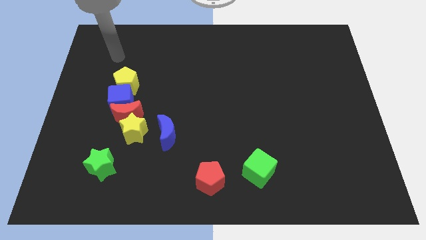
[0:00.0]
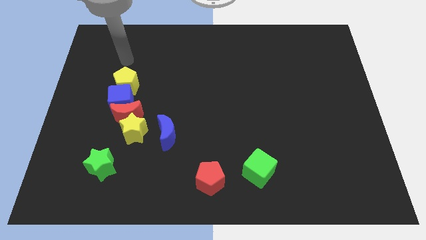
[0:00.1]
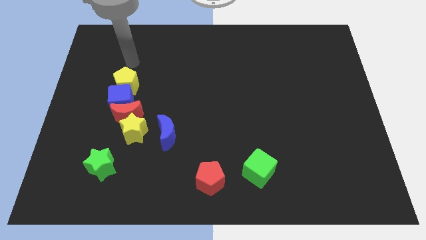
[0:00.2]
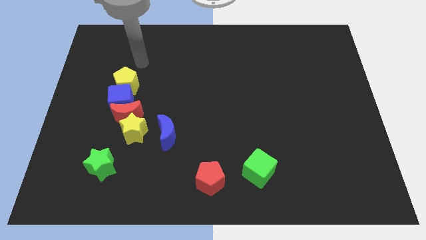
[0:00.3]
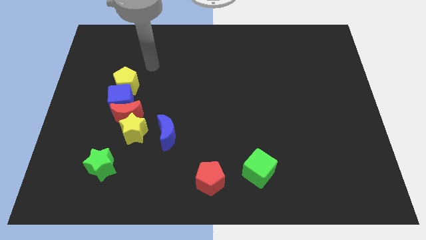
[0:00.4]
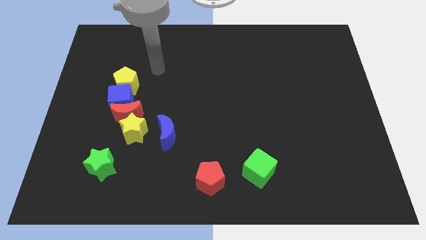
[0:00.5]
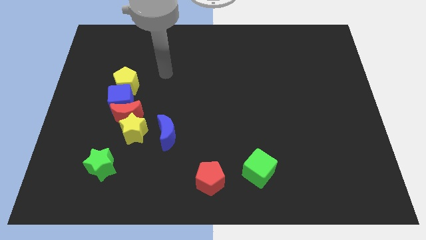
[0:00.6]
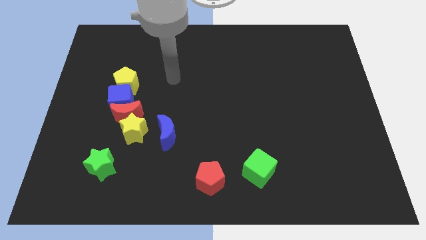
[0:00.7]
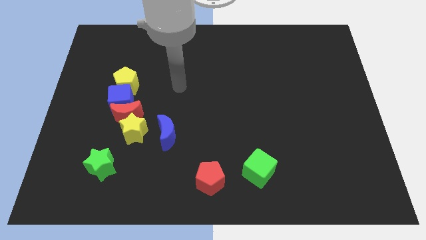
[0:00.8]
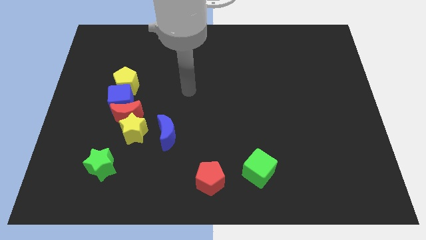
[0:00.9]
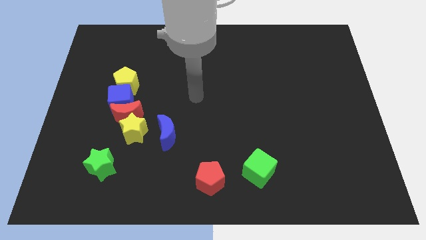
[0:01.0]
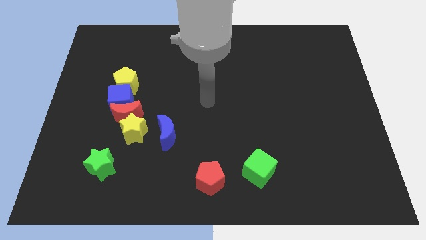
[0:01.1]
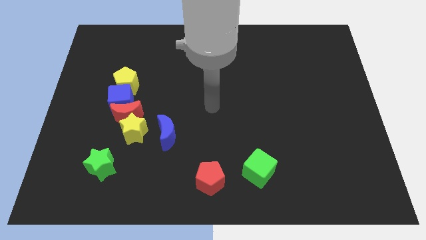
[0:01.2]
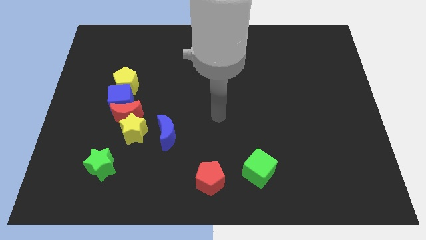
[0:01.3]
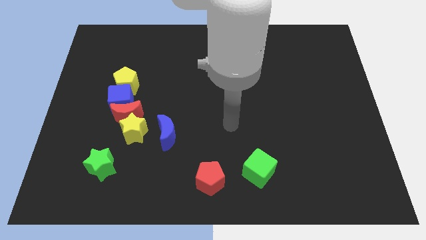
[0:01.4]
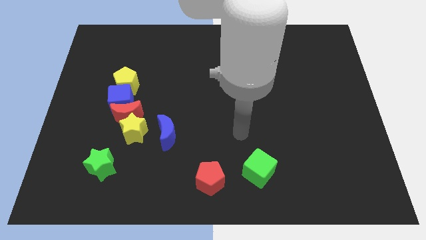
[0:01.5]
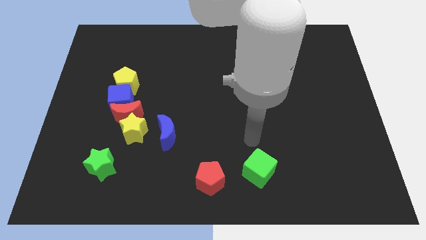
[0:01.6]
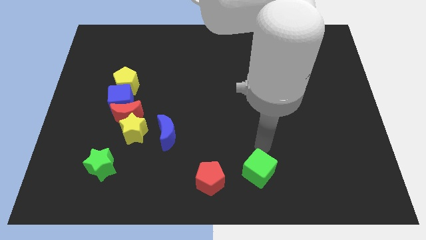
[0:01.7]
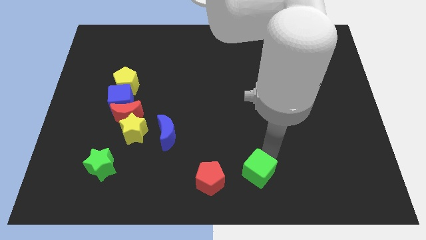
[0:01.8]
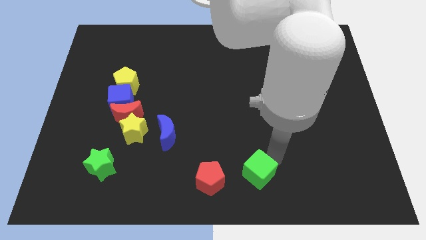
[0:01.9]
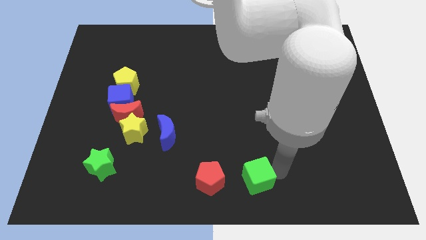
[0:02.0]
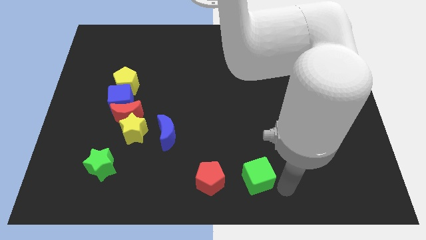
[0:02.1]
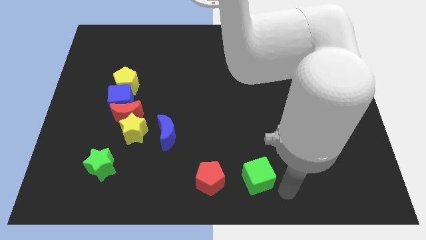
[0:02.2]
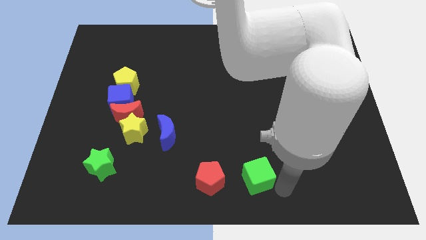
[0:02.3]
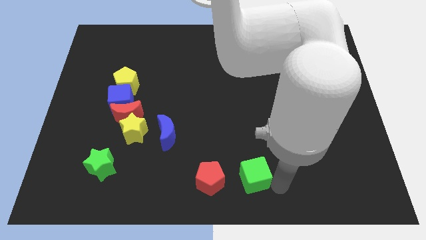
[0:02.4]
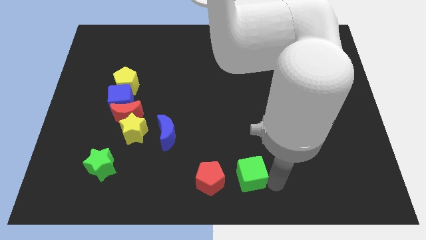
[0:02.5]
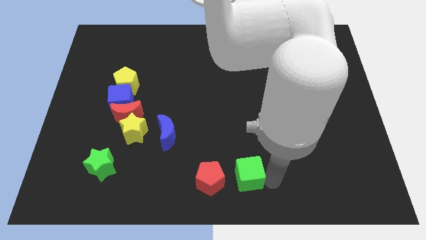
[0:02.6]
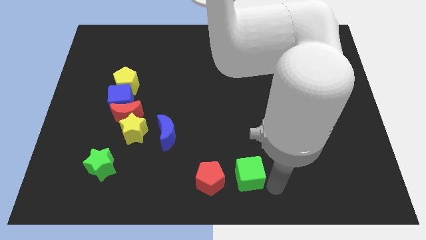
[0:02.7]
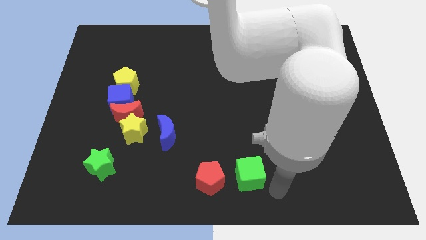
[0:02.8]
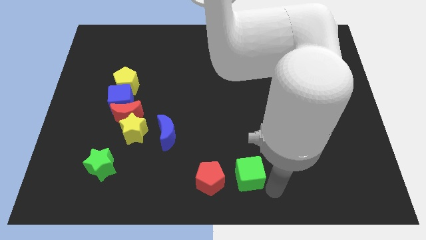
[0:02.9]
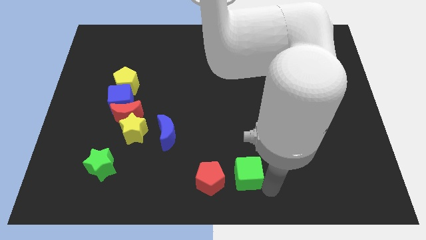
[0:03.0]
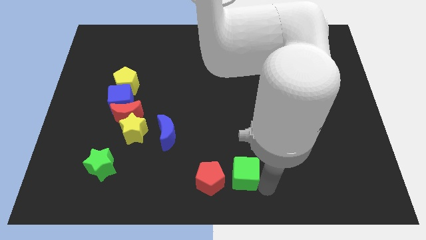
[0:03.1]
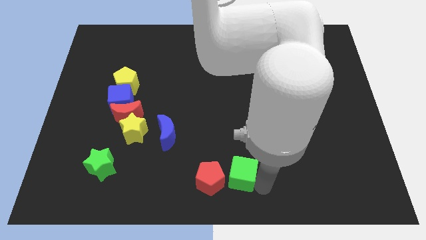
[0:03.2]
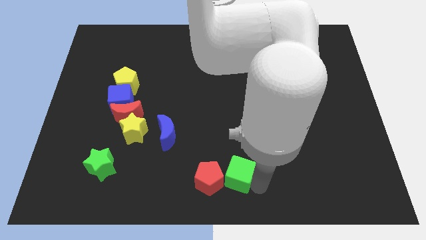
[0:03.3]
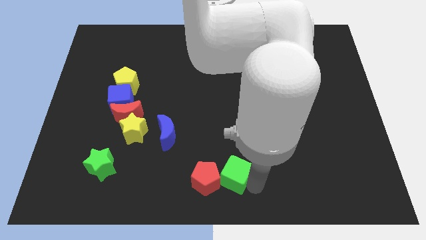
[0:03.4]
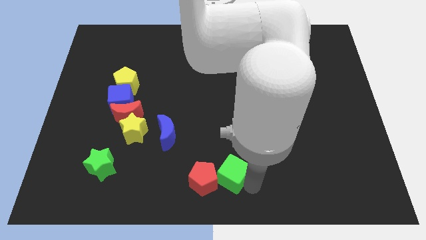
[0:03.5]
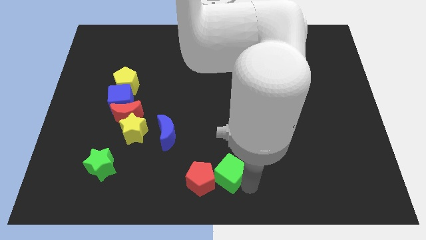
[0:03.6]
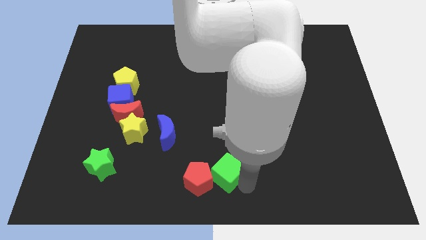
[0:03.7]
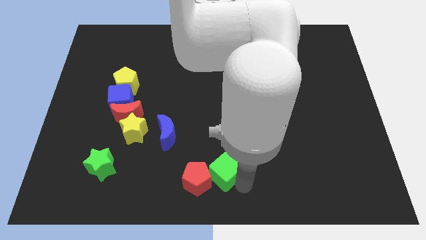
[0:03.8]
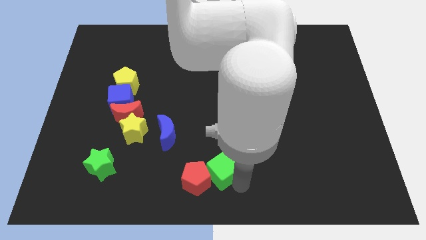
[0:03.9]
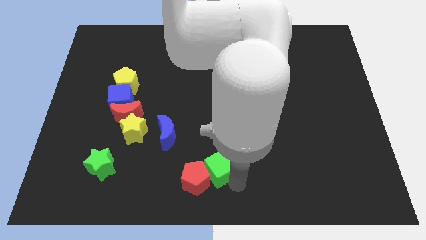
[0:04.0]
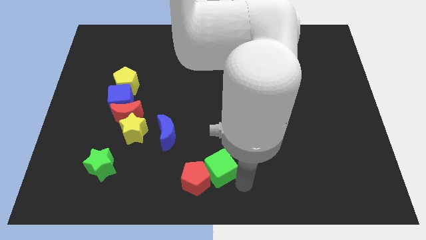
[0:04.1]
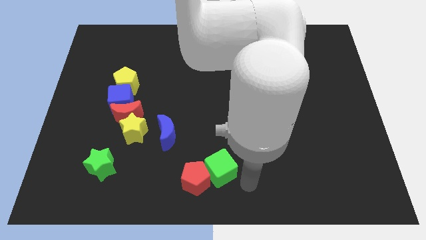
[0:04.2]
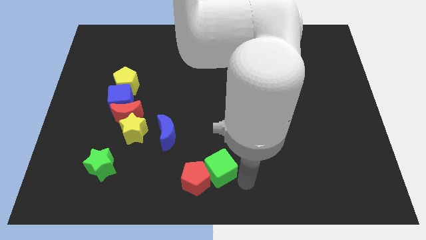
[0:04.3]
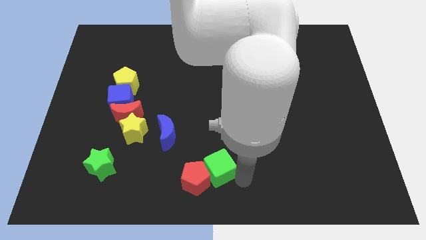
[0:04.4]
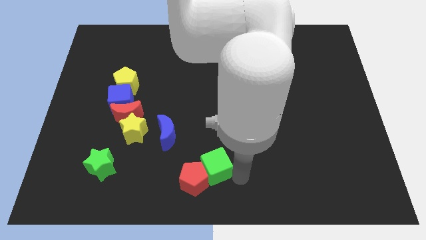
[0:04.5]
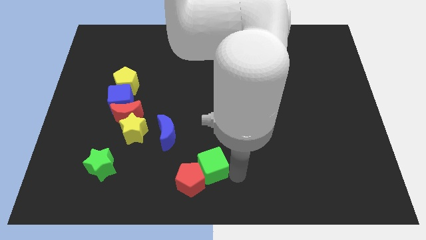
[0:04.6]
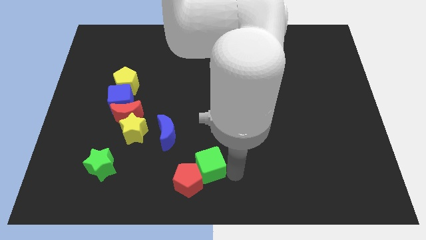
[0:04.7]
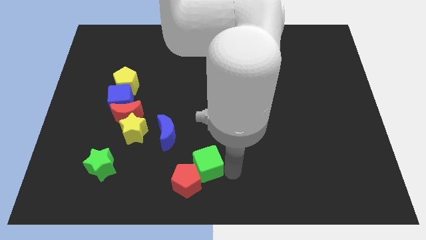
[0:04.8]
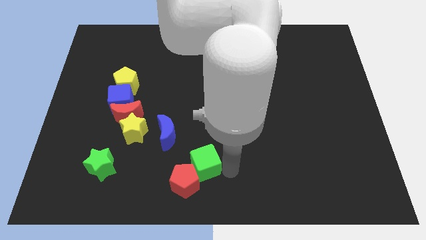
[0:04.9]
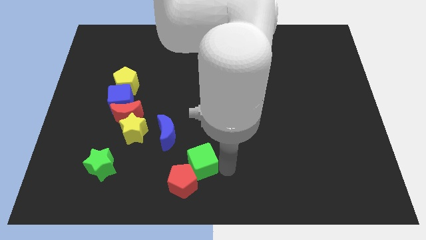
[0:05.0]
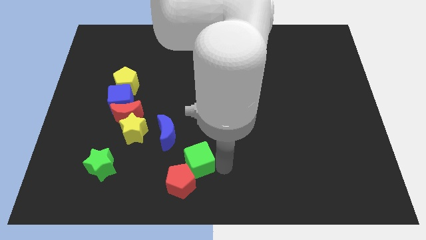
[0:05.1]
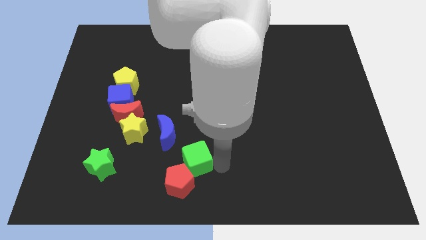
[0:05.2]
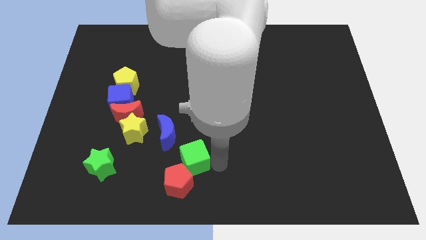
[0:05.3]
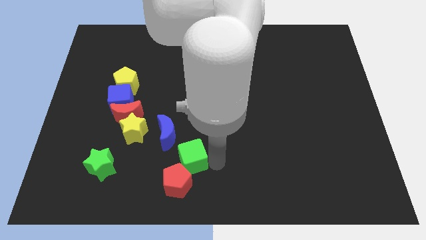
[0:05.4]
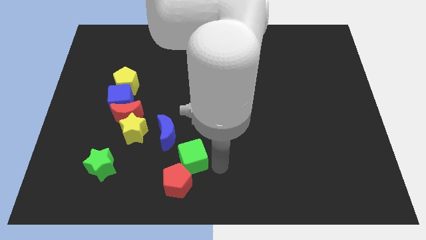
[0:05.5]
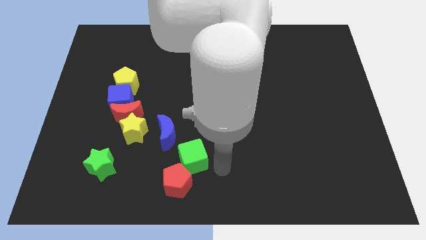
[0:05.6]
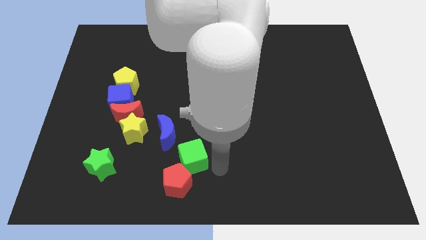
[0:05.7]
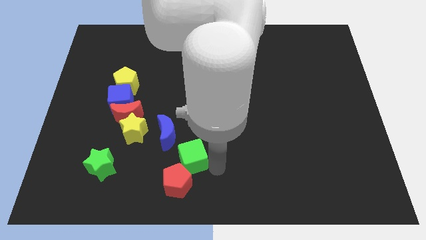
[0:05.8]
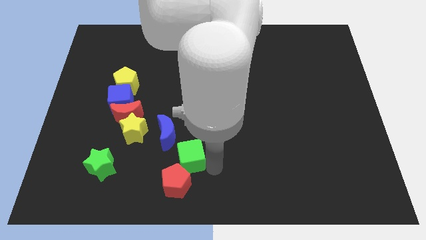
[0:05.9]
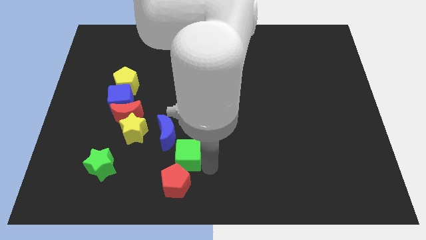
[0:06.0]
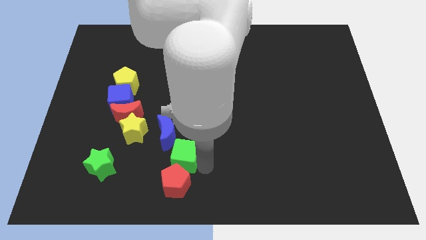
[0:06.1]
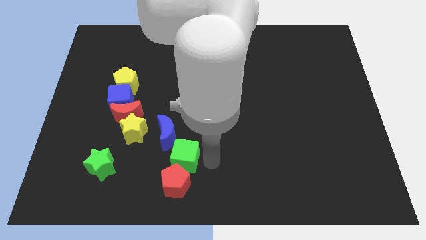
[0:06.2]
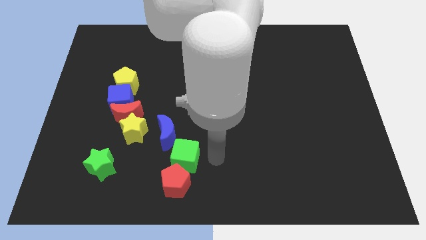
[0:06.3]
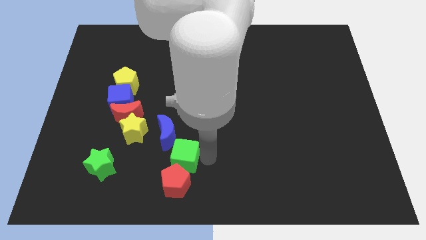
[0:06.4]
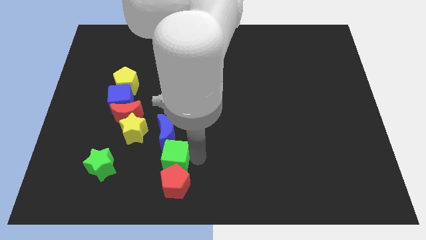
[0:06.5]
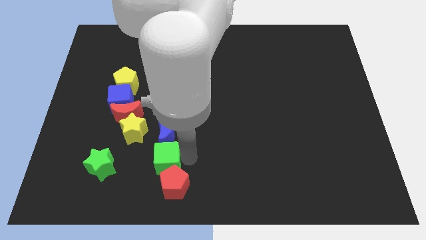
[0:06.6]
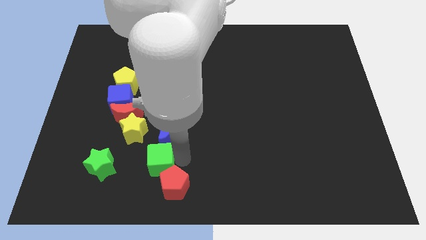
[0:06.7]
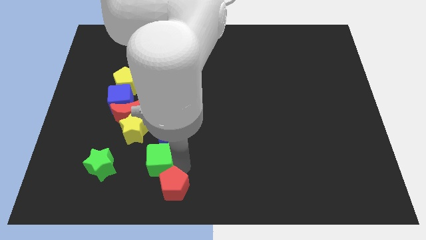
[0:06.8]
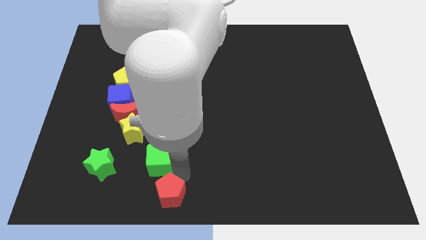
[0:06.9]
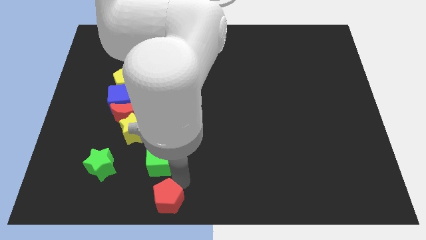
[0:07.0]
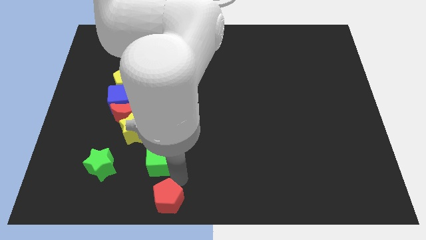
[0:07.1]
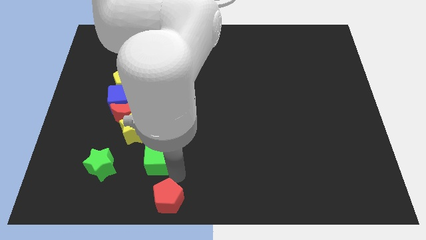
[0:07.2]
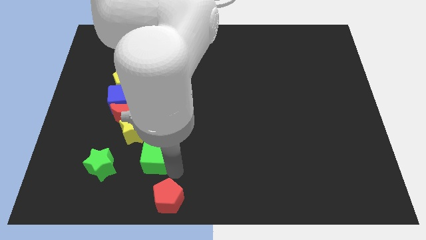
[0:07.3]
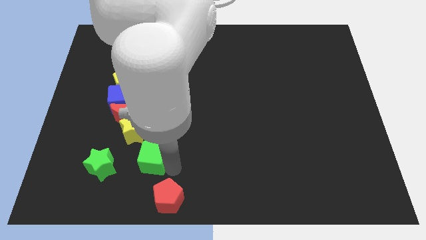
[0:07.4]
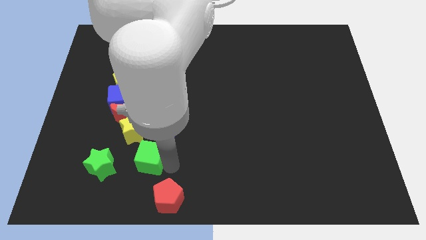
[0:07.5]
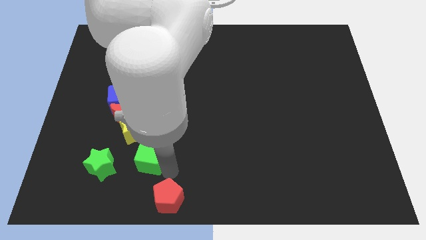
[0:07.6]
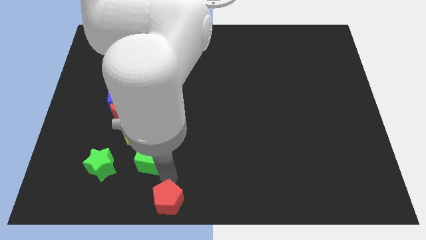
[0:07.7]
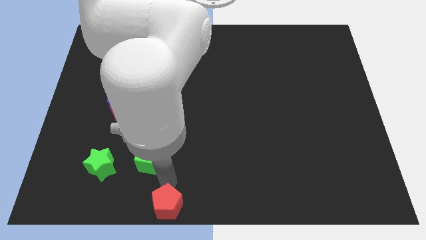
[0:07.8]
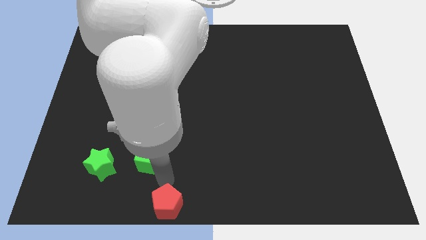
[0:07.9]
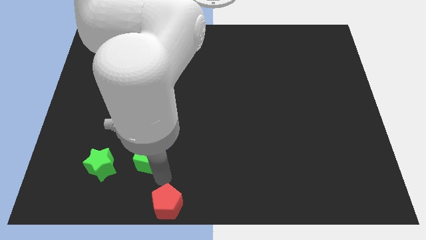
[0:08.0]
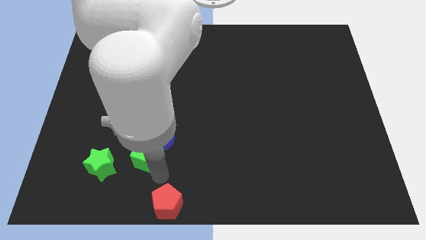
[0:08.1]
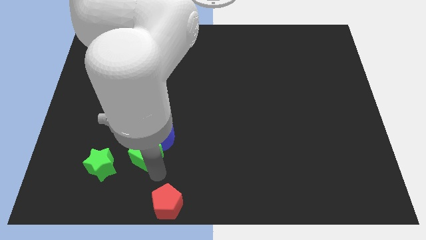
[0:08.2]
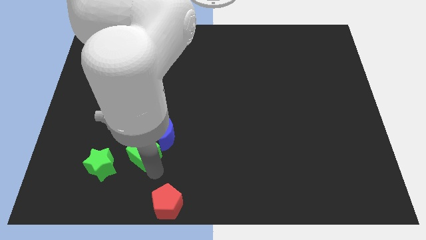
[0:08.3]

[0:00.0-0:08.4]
push the green cube next to the yellow star
